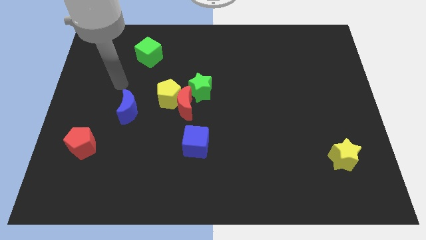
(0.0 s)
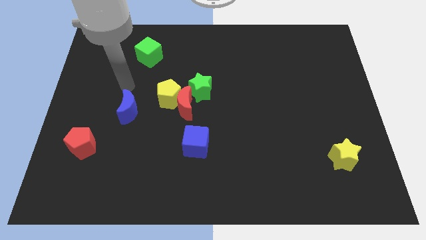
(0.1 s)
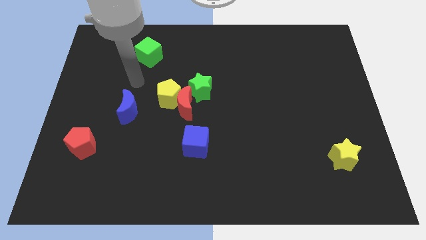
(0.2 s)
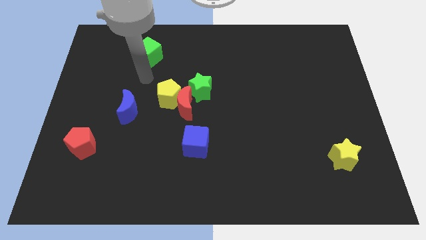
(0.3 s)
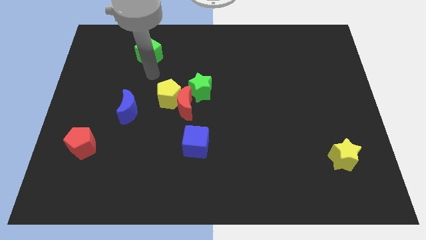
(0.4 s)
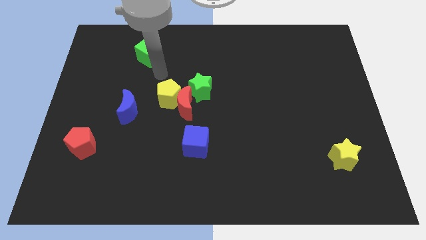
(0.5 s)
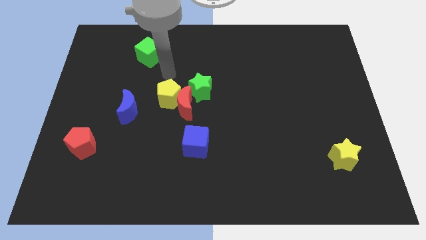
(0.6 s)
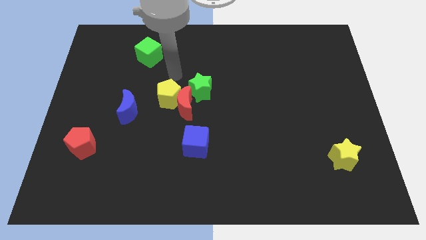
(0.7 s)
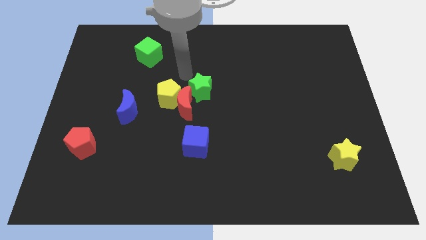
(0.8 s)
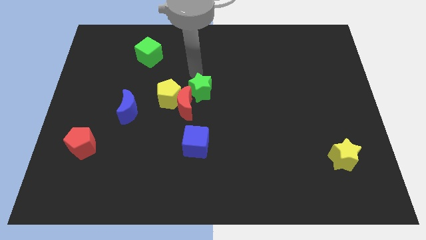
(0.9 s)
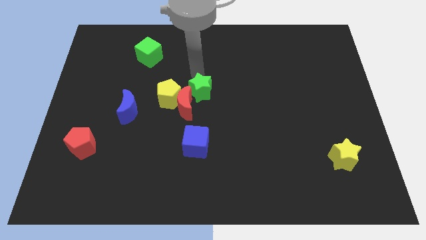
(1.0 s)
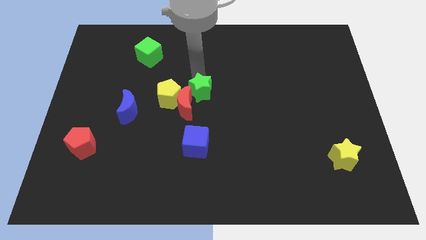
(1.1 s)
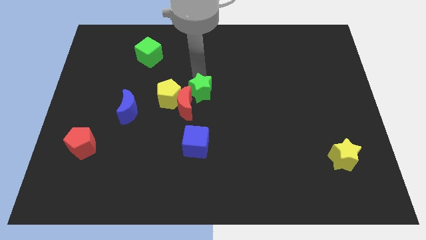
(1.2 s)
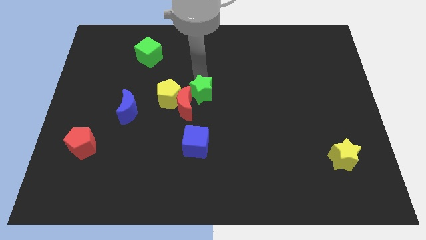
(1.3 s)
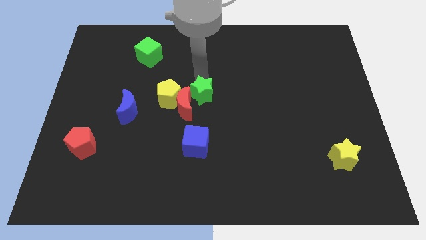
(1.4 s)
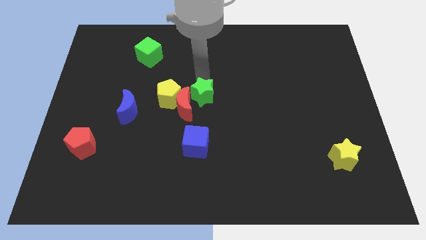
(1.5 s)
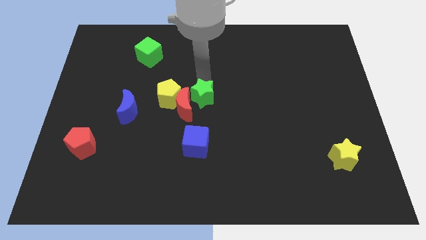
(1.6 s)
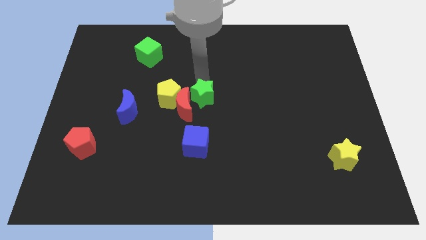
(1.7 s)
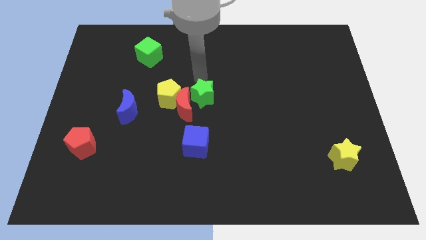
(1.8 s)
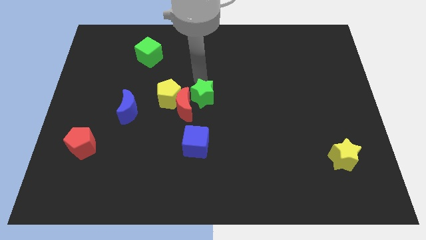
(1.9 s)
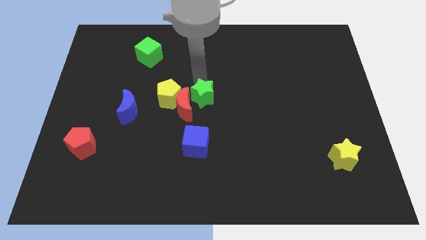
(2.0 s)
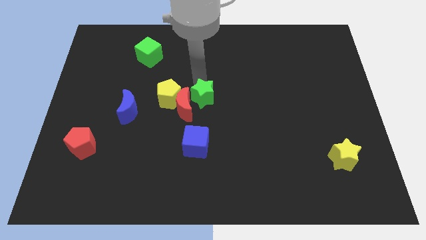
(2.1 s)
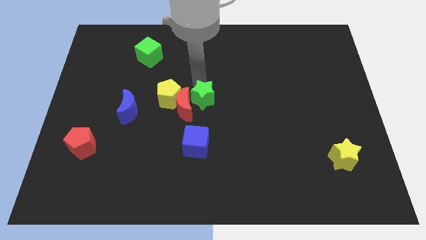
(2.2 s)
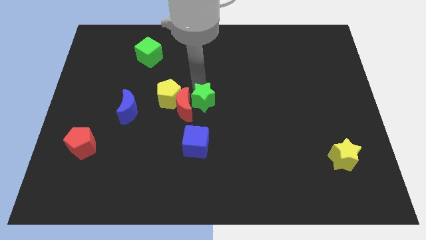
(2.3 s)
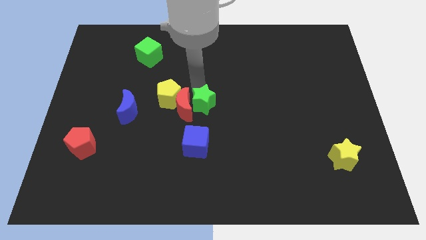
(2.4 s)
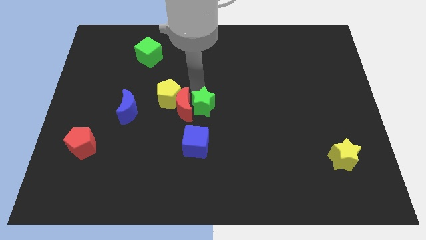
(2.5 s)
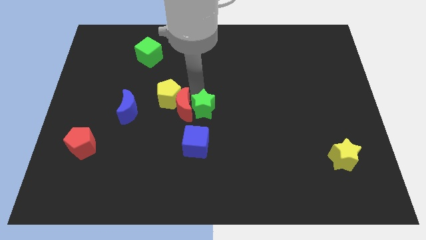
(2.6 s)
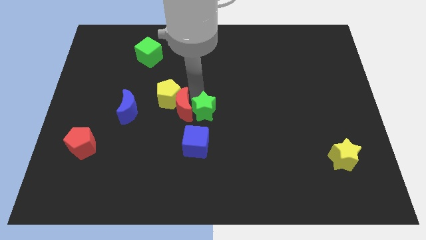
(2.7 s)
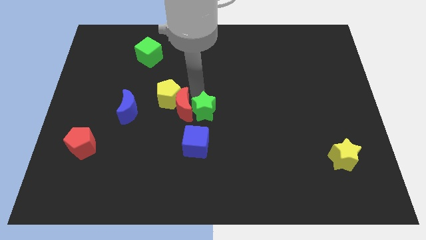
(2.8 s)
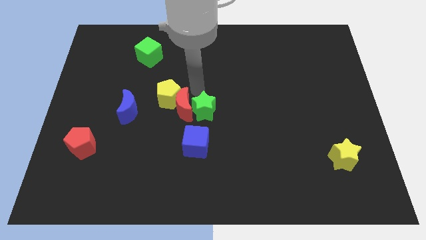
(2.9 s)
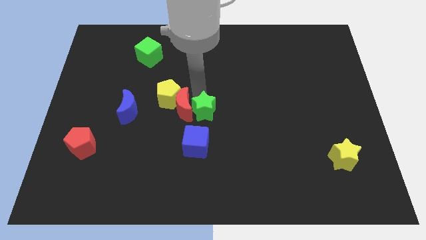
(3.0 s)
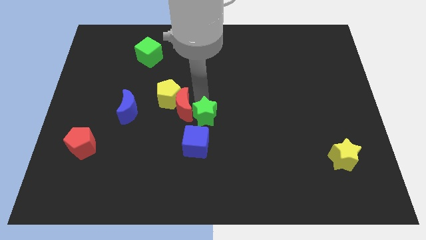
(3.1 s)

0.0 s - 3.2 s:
move the green star a little bit down

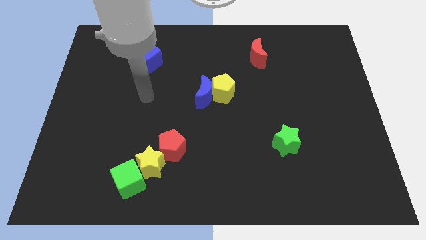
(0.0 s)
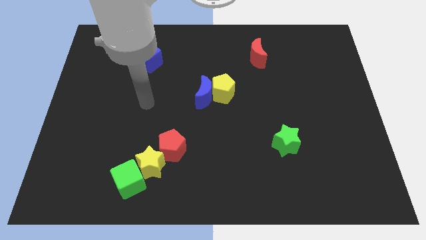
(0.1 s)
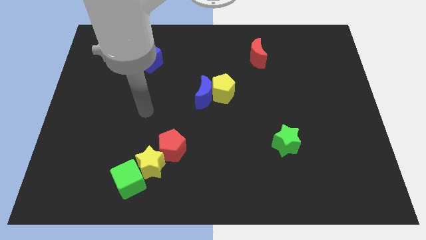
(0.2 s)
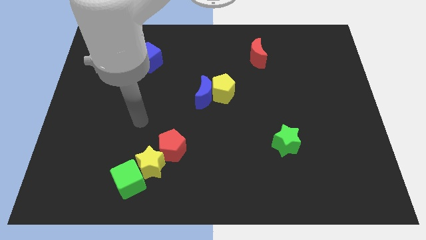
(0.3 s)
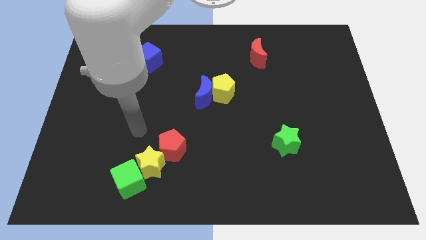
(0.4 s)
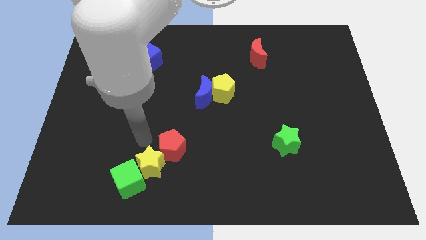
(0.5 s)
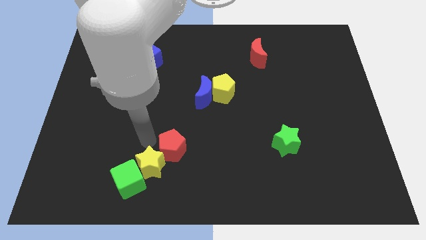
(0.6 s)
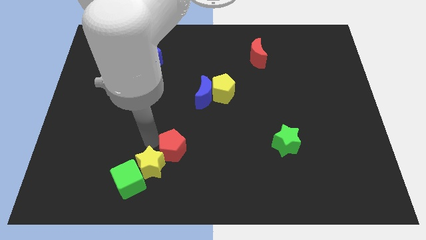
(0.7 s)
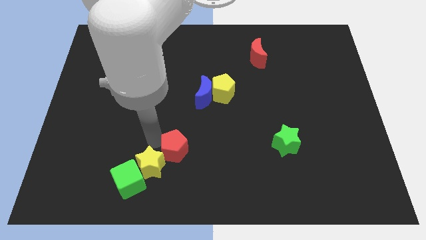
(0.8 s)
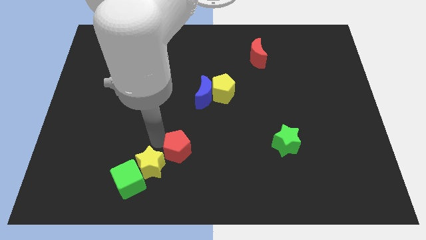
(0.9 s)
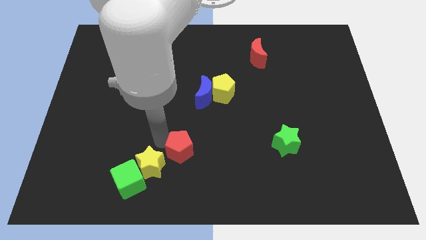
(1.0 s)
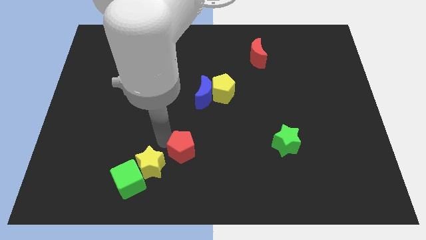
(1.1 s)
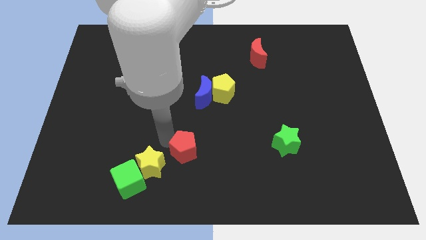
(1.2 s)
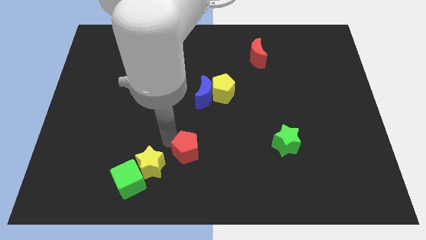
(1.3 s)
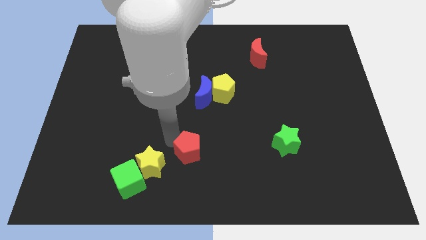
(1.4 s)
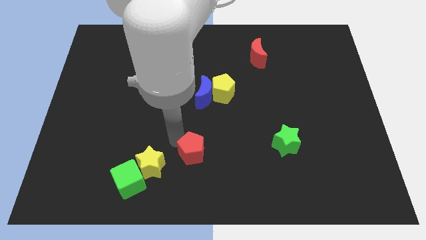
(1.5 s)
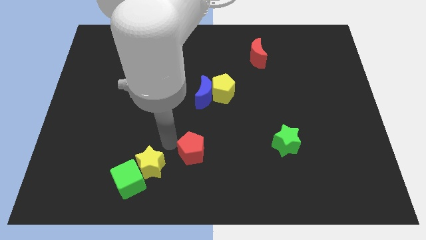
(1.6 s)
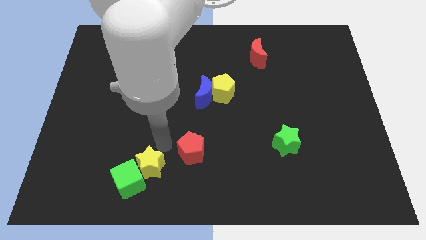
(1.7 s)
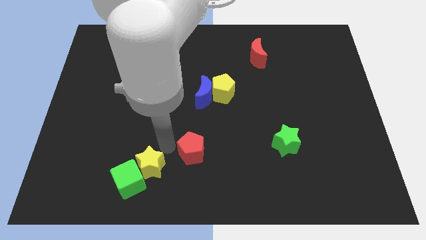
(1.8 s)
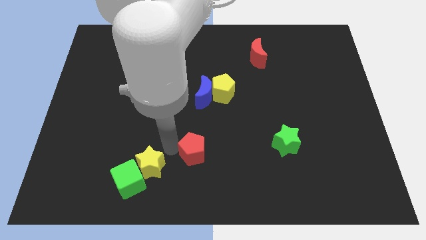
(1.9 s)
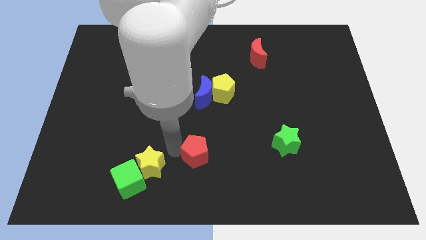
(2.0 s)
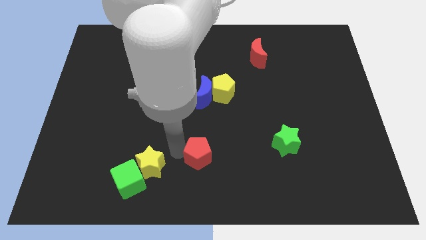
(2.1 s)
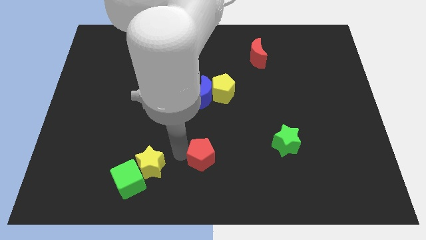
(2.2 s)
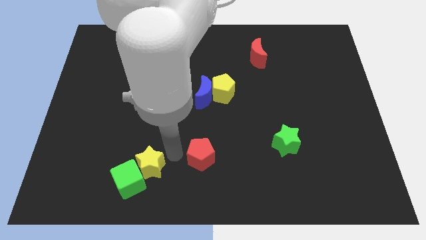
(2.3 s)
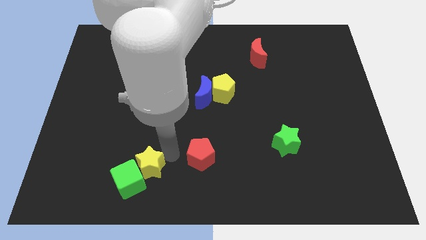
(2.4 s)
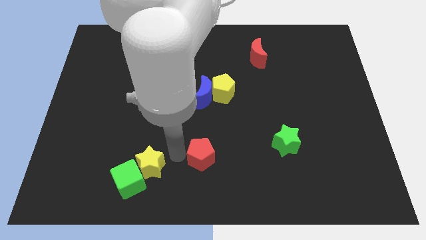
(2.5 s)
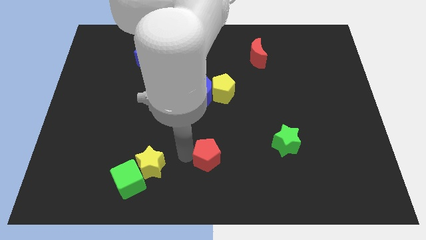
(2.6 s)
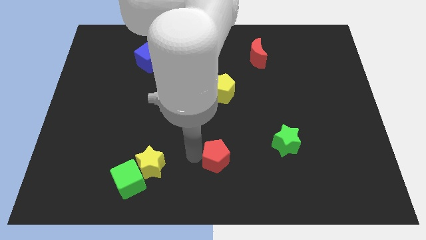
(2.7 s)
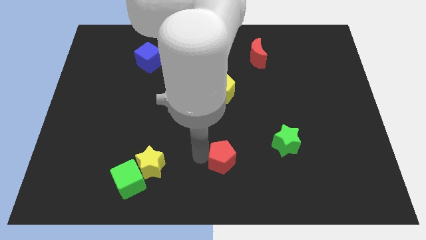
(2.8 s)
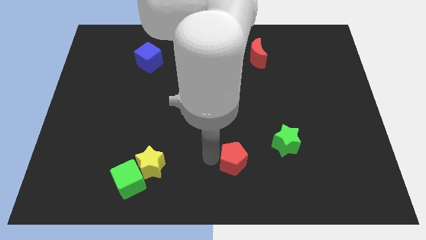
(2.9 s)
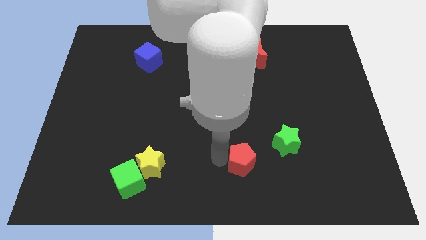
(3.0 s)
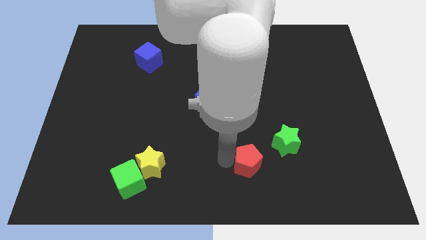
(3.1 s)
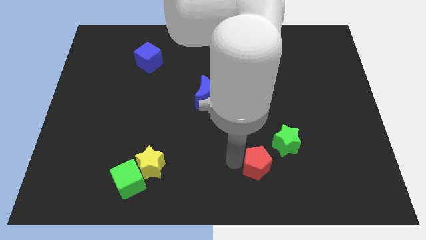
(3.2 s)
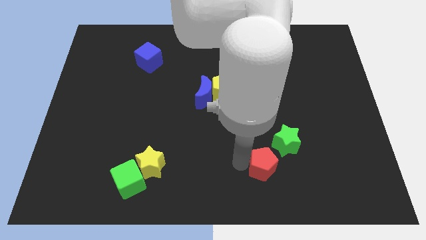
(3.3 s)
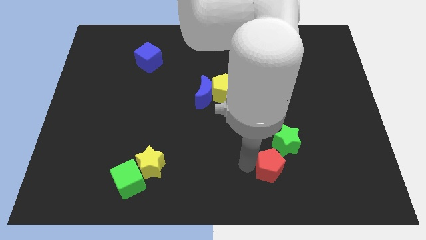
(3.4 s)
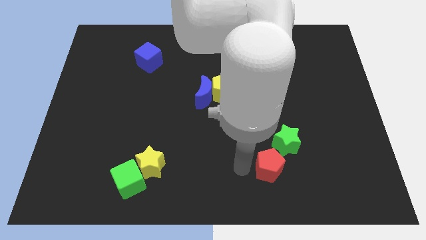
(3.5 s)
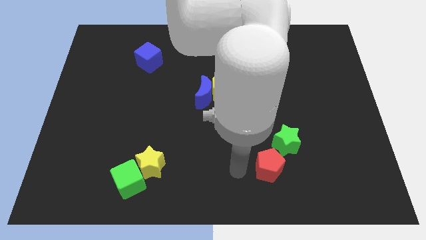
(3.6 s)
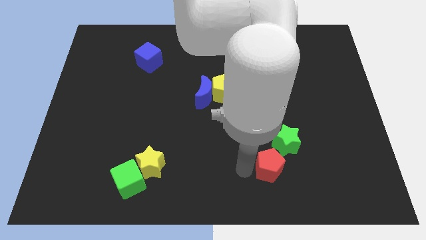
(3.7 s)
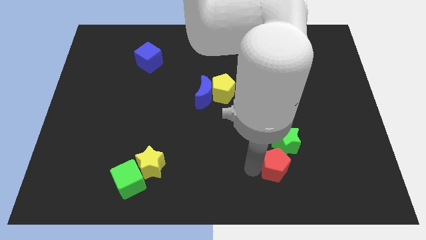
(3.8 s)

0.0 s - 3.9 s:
push the red pentagon right

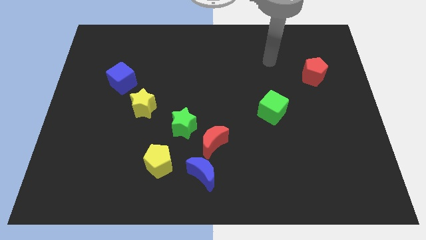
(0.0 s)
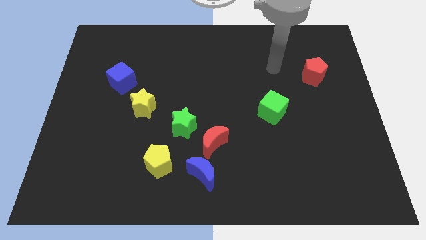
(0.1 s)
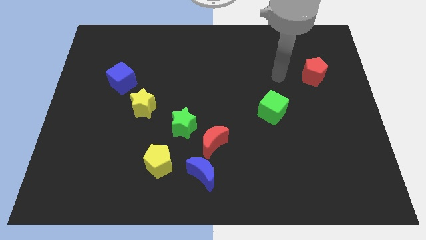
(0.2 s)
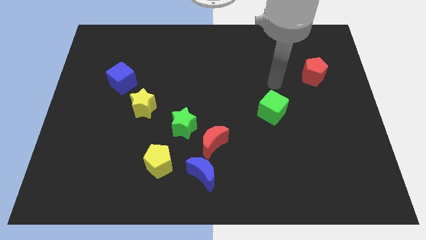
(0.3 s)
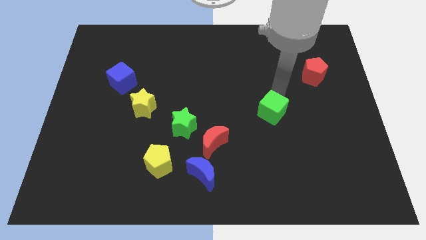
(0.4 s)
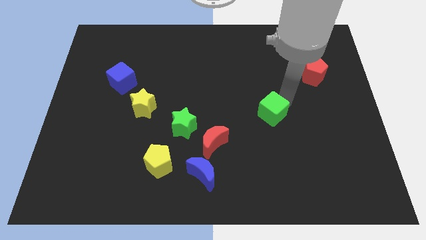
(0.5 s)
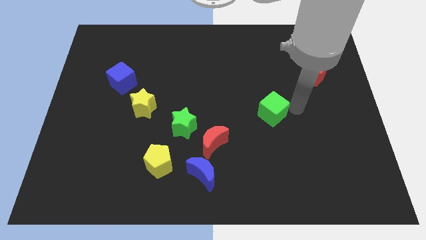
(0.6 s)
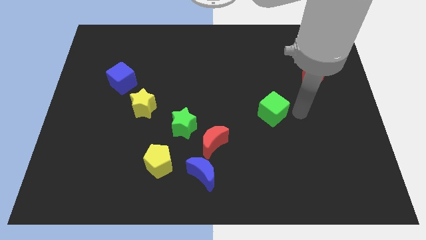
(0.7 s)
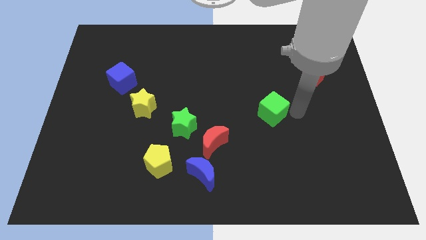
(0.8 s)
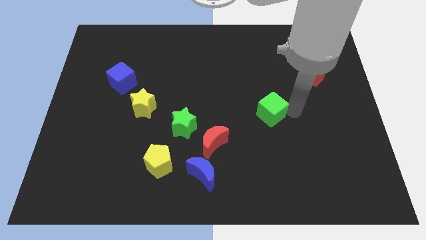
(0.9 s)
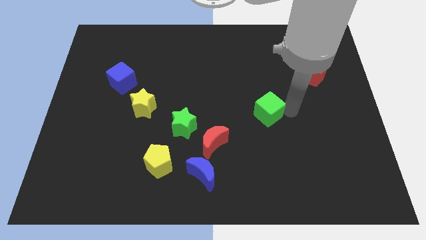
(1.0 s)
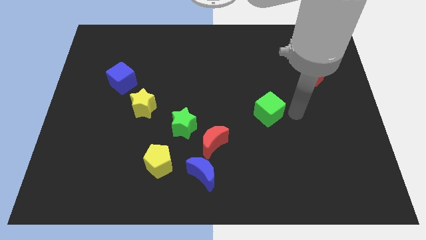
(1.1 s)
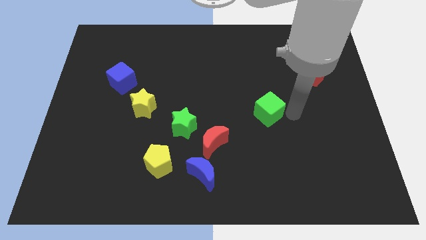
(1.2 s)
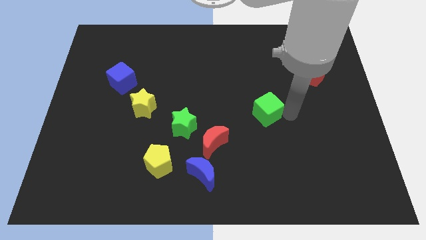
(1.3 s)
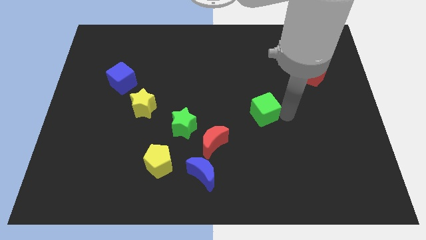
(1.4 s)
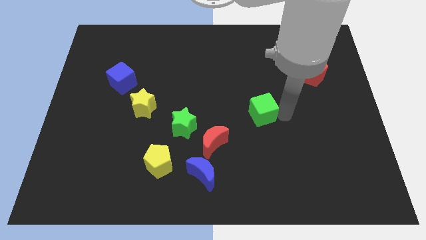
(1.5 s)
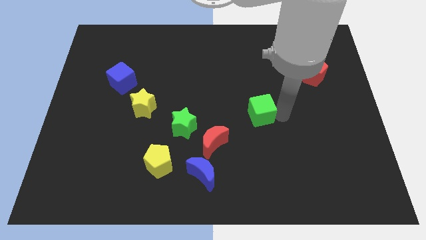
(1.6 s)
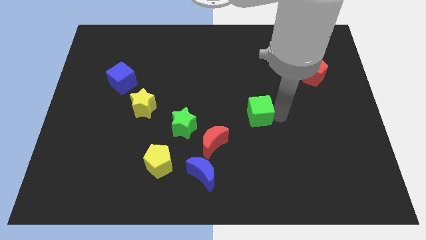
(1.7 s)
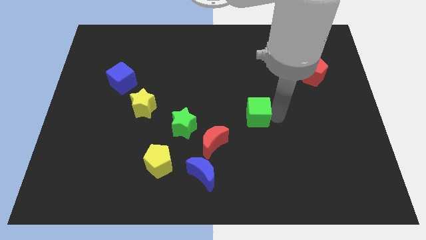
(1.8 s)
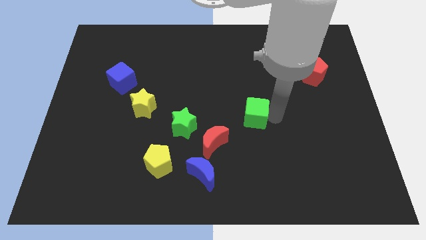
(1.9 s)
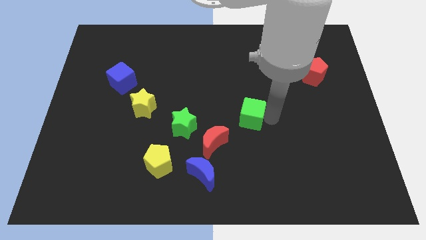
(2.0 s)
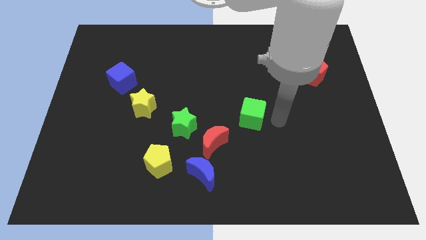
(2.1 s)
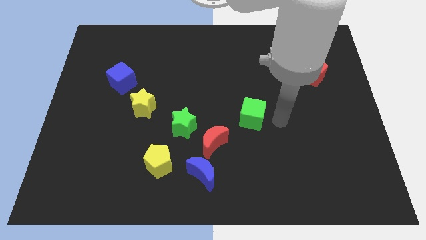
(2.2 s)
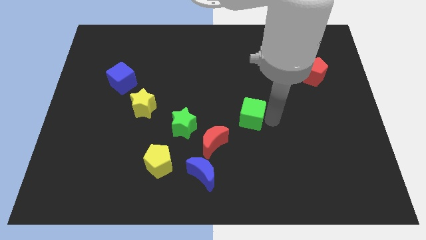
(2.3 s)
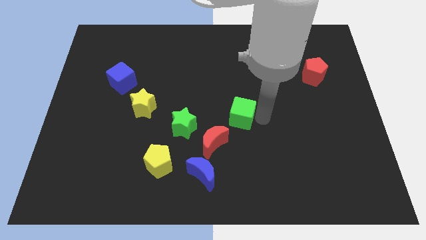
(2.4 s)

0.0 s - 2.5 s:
move the green cube a little bit to the left
